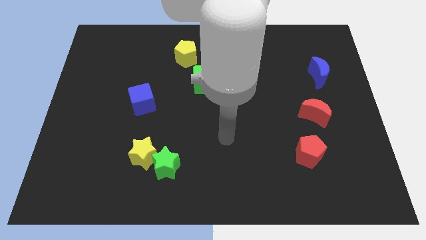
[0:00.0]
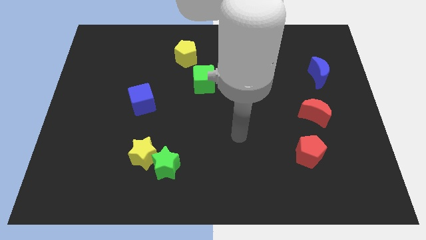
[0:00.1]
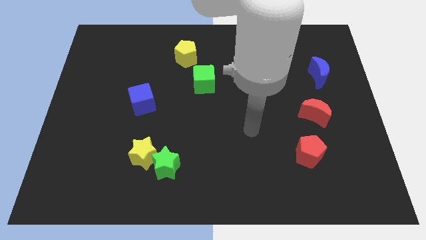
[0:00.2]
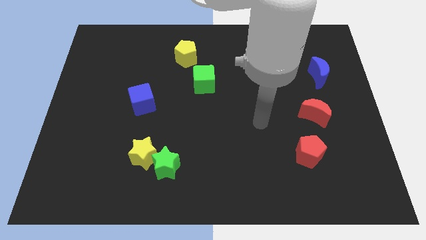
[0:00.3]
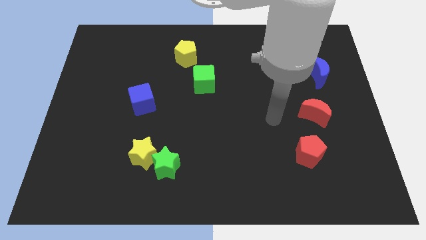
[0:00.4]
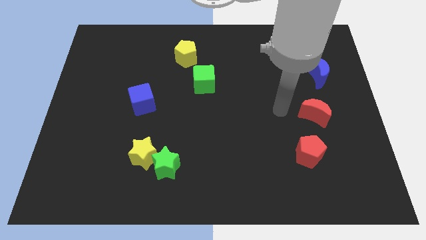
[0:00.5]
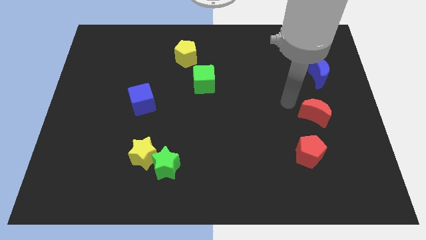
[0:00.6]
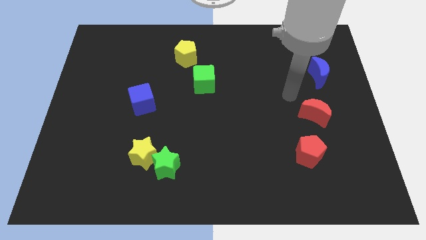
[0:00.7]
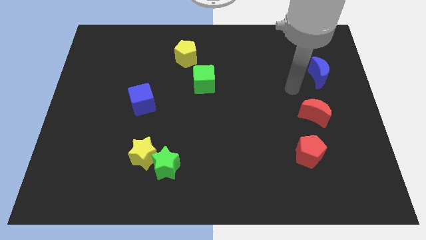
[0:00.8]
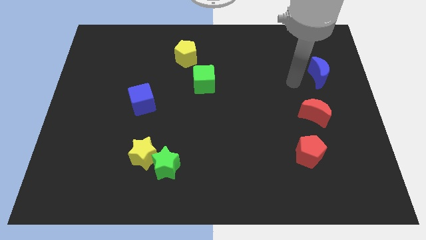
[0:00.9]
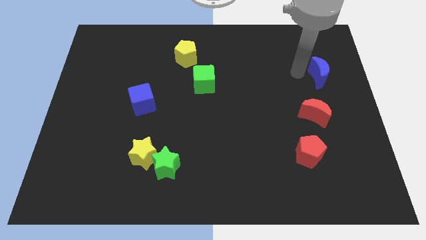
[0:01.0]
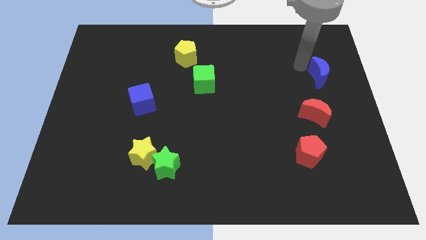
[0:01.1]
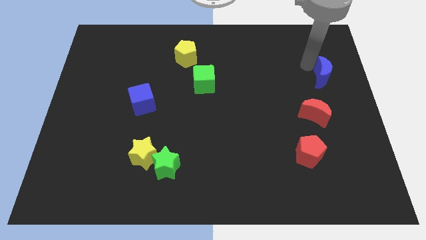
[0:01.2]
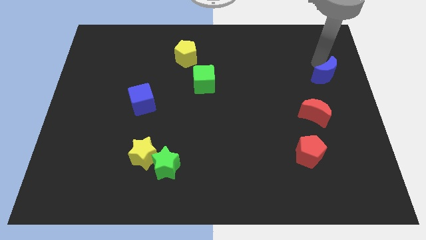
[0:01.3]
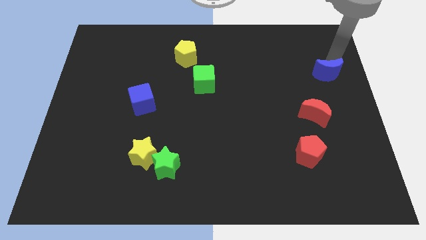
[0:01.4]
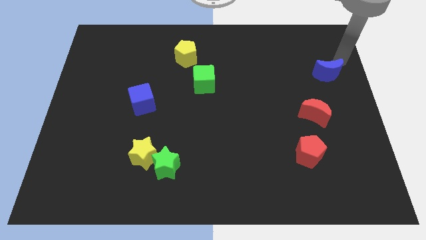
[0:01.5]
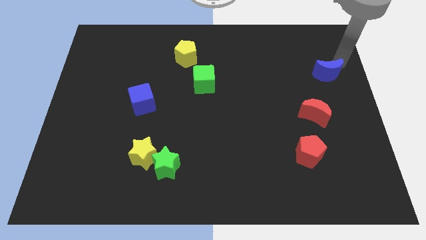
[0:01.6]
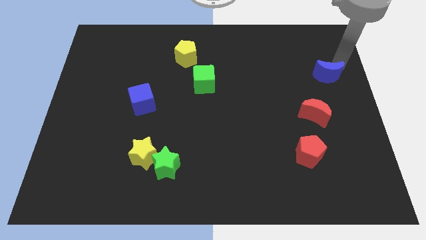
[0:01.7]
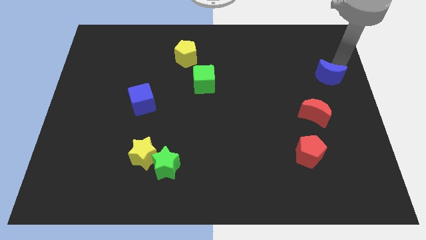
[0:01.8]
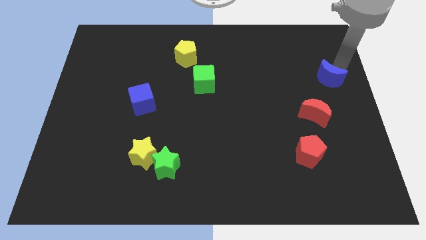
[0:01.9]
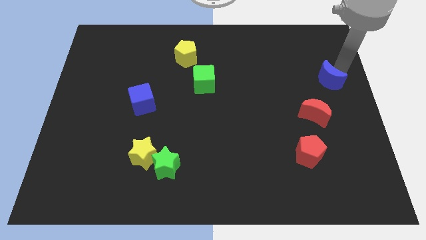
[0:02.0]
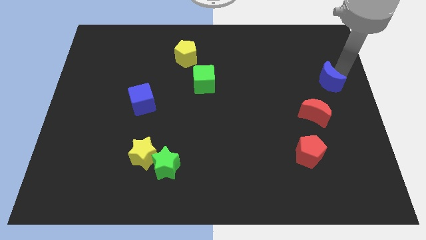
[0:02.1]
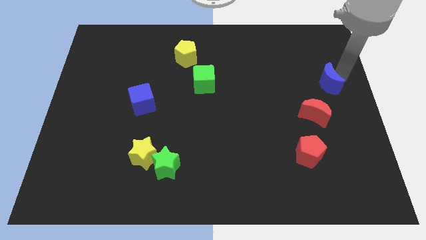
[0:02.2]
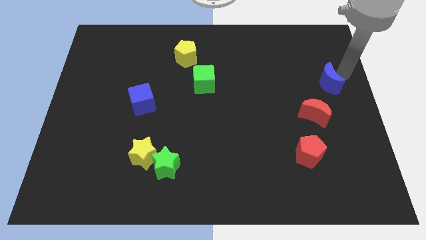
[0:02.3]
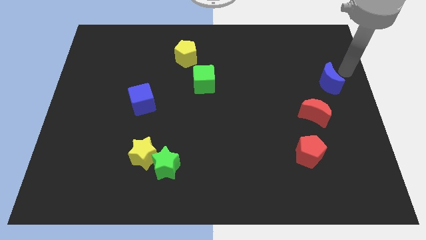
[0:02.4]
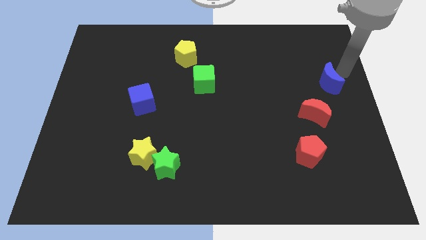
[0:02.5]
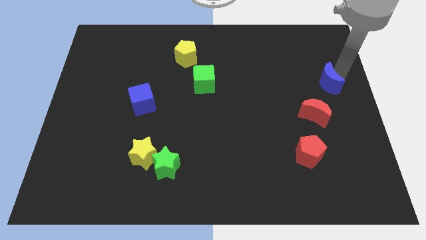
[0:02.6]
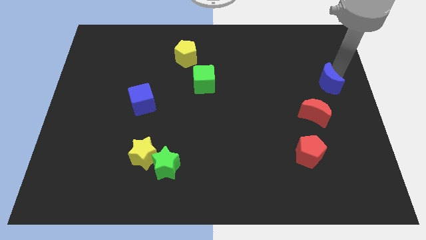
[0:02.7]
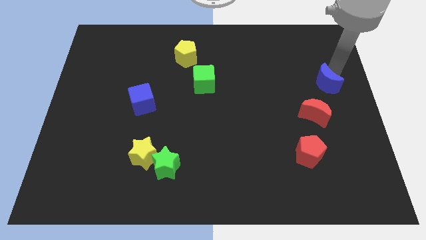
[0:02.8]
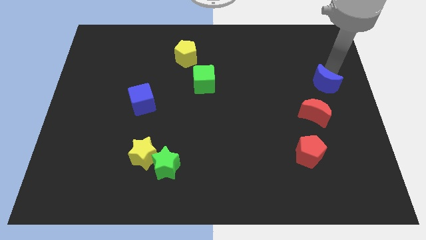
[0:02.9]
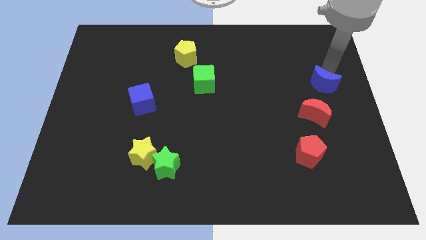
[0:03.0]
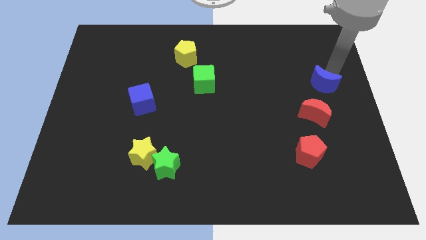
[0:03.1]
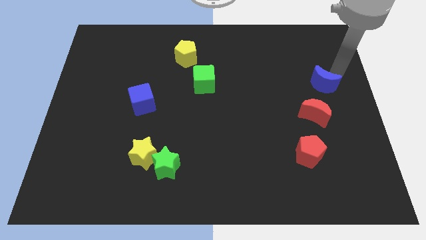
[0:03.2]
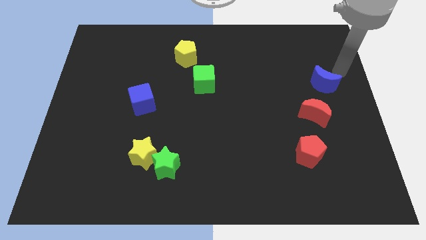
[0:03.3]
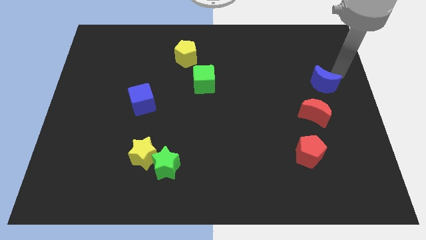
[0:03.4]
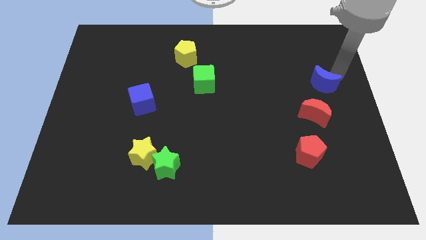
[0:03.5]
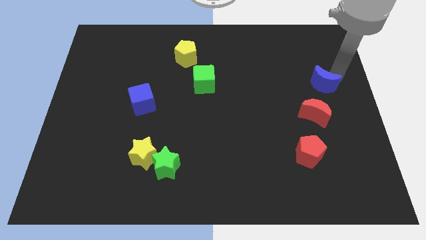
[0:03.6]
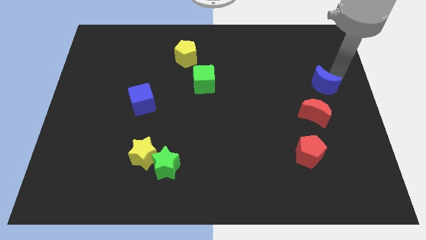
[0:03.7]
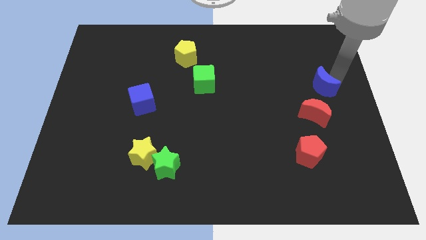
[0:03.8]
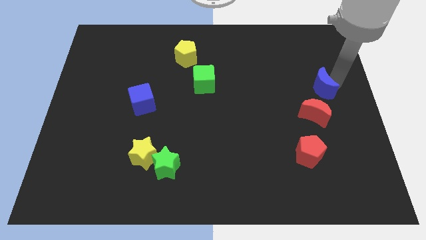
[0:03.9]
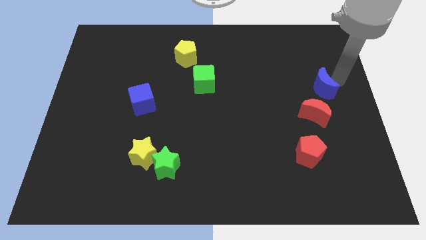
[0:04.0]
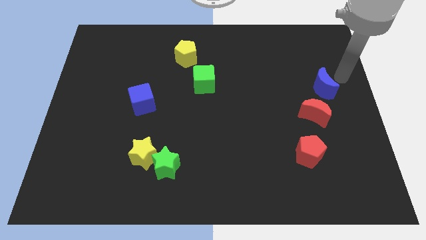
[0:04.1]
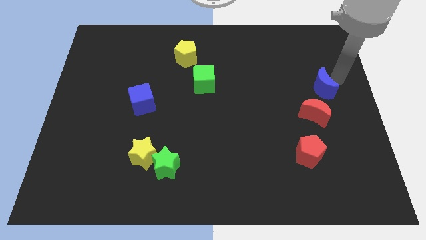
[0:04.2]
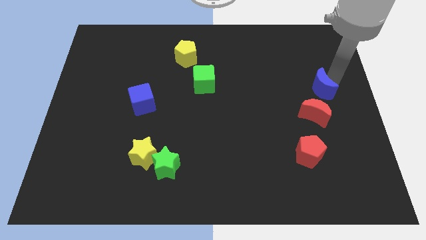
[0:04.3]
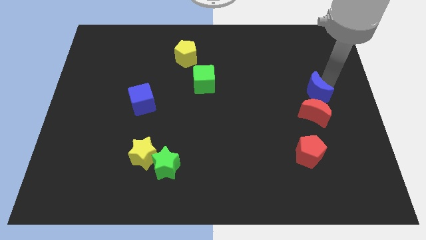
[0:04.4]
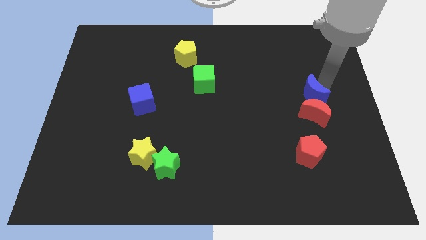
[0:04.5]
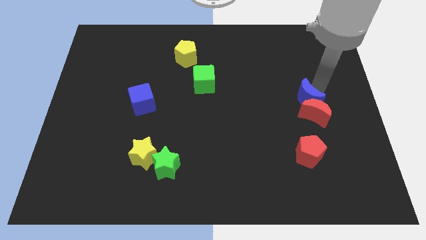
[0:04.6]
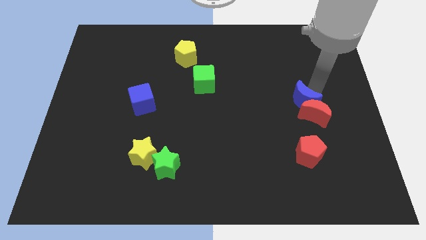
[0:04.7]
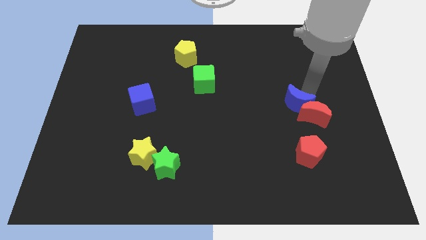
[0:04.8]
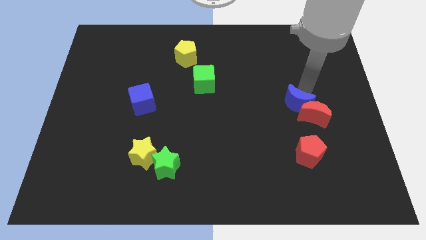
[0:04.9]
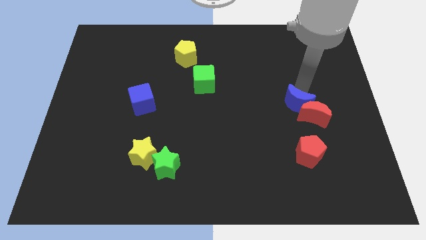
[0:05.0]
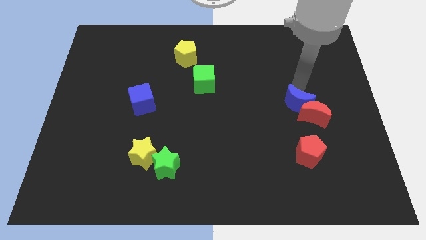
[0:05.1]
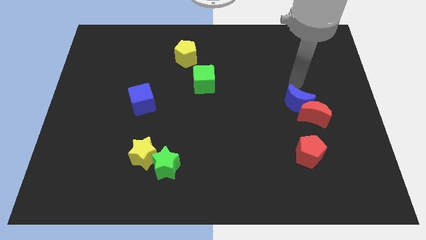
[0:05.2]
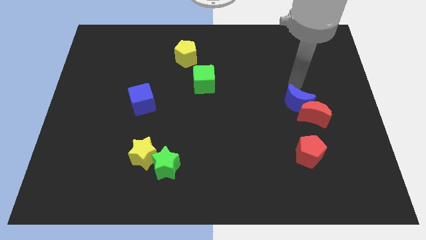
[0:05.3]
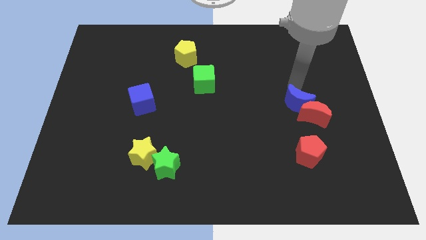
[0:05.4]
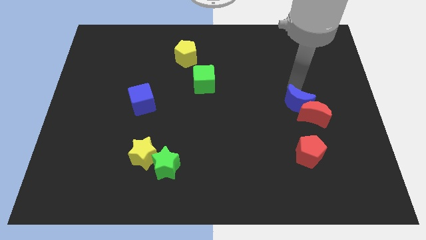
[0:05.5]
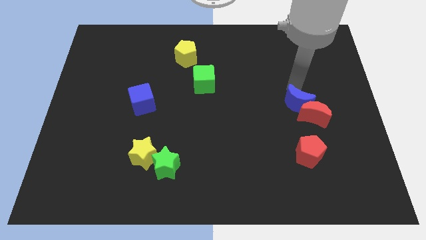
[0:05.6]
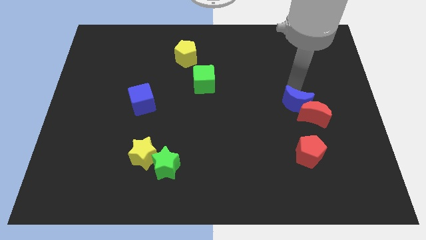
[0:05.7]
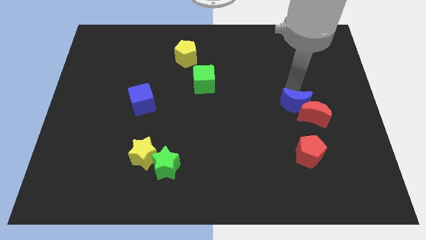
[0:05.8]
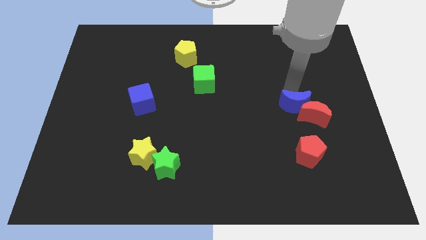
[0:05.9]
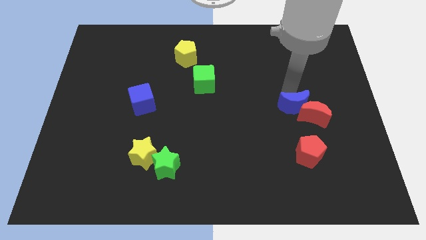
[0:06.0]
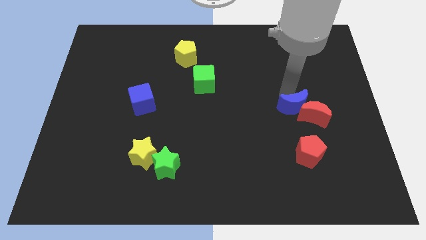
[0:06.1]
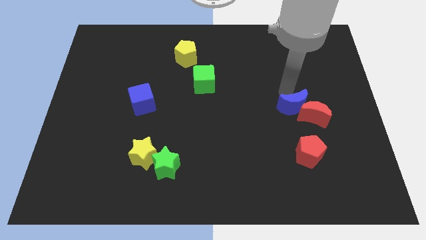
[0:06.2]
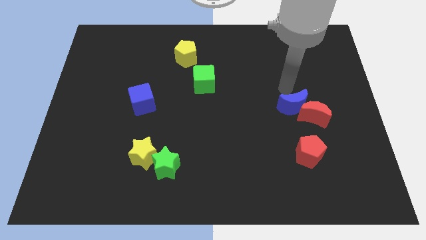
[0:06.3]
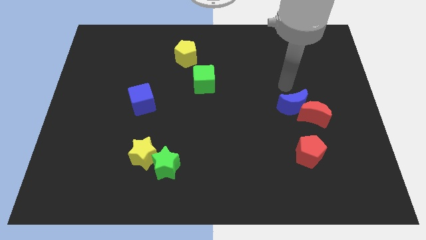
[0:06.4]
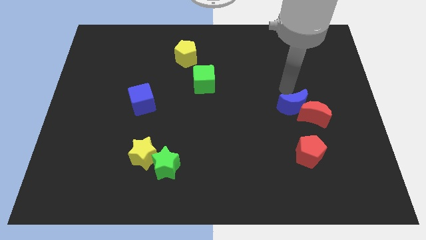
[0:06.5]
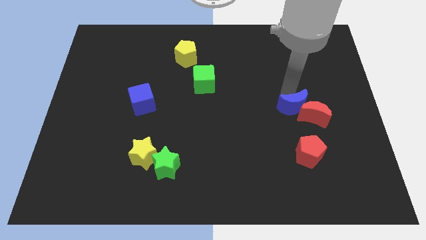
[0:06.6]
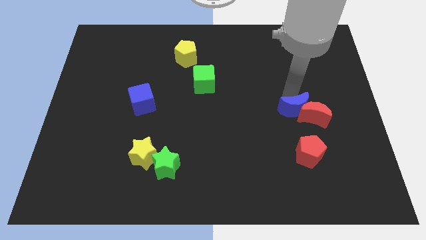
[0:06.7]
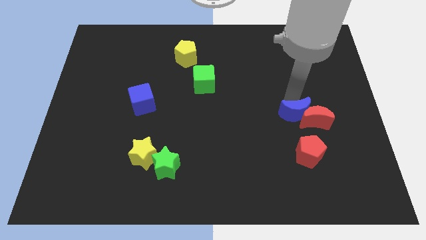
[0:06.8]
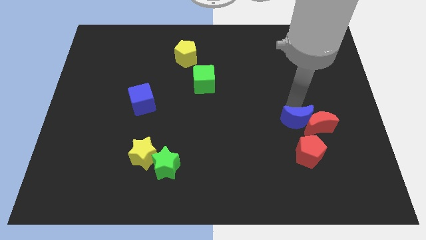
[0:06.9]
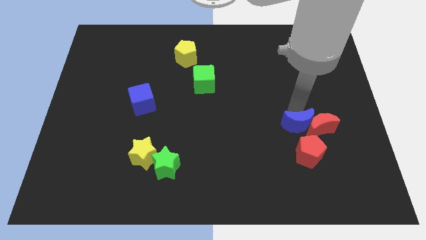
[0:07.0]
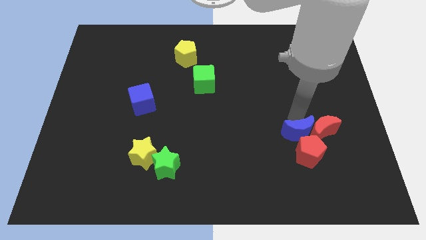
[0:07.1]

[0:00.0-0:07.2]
slide the blue moon to the red pentagon
